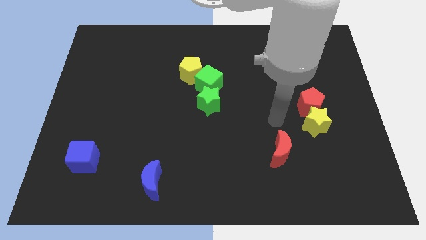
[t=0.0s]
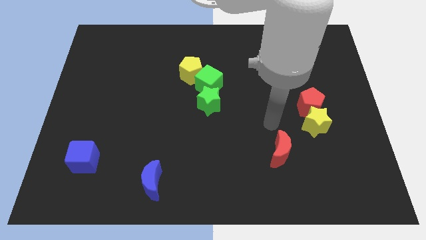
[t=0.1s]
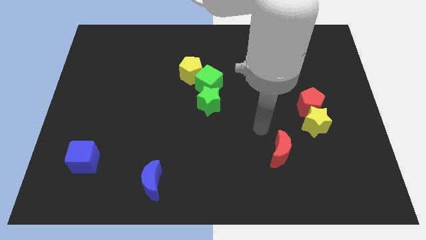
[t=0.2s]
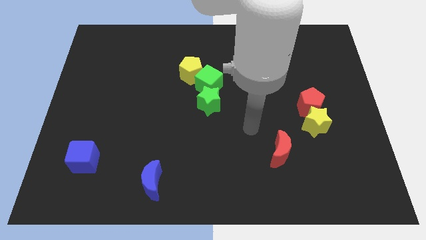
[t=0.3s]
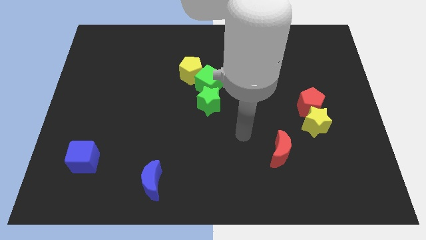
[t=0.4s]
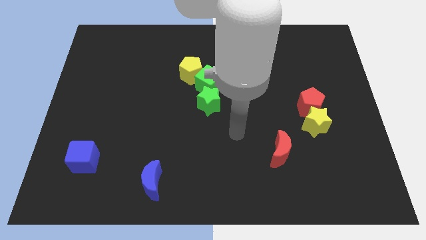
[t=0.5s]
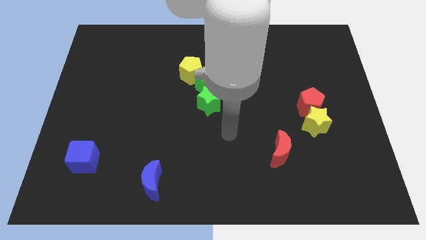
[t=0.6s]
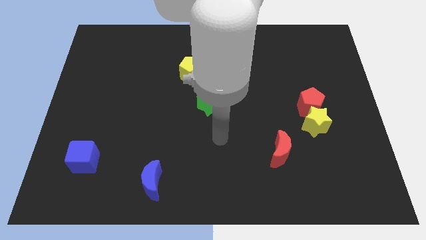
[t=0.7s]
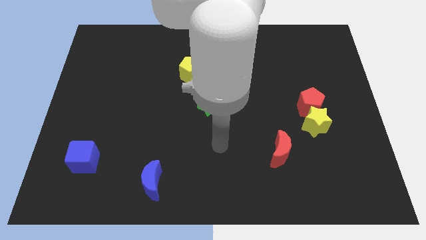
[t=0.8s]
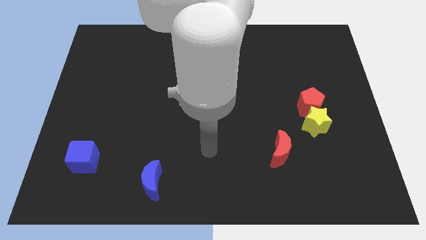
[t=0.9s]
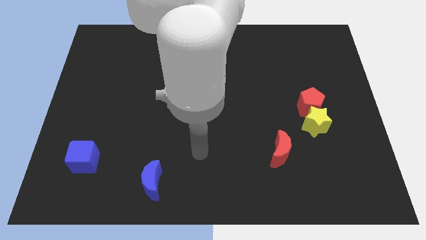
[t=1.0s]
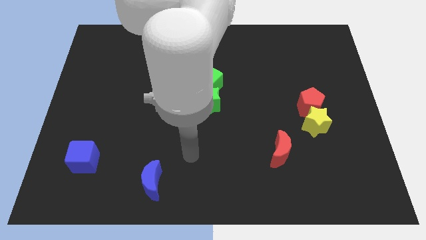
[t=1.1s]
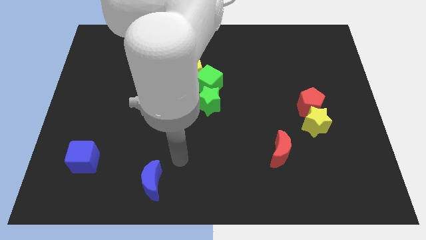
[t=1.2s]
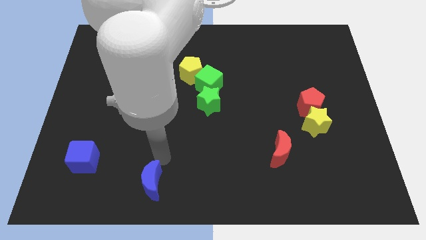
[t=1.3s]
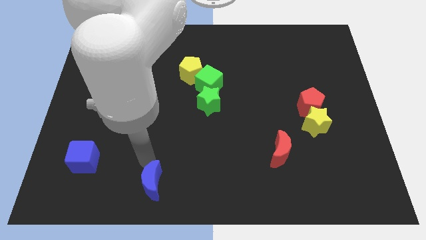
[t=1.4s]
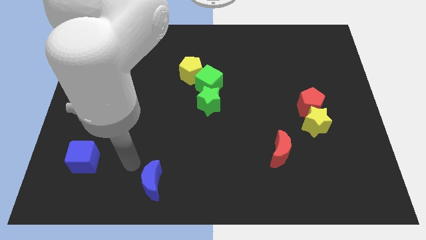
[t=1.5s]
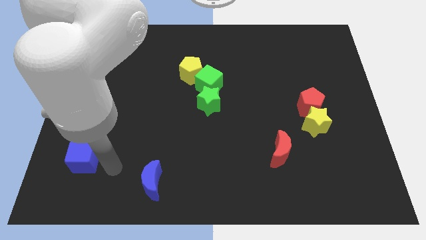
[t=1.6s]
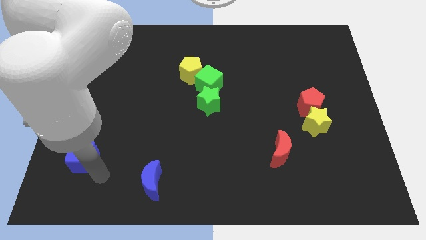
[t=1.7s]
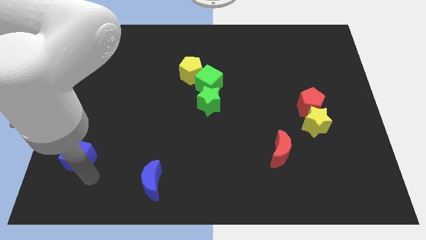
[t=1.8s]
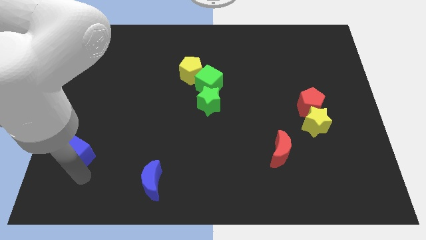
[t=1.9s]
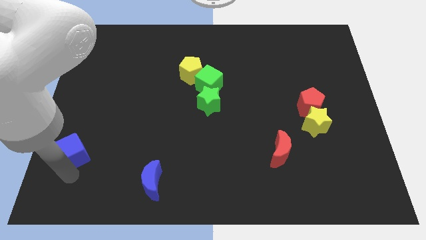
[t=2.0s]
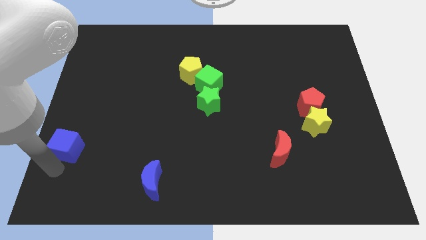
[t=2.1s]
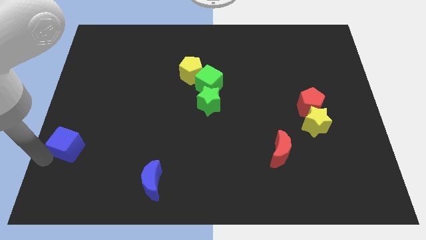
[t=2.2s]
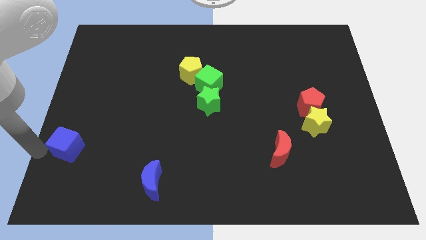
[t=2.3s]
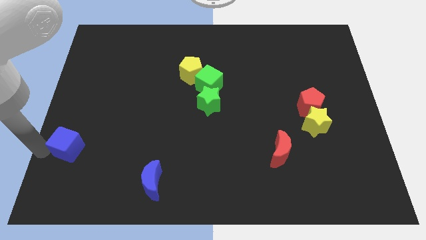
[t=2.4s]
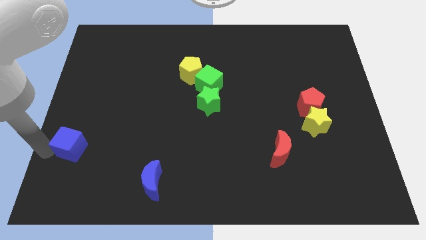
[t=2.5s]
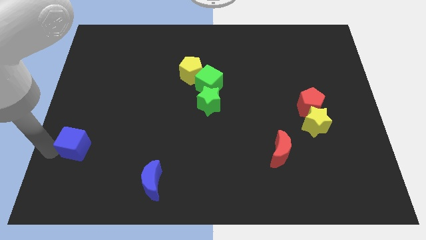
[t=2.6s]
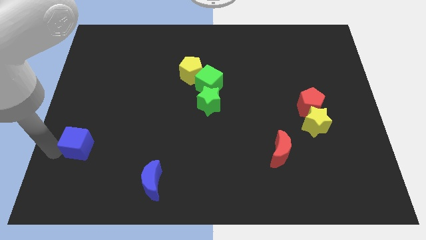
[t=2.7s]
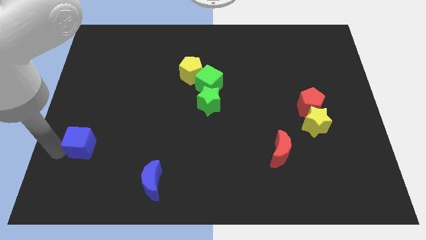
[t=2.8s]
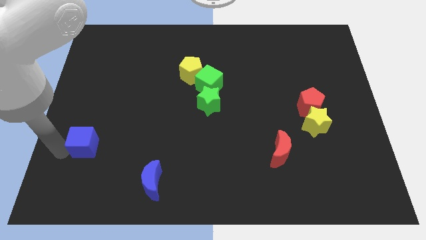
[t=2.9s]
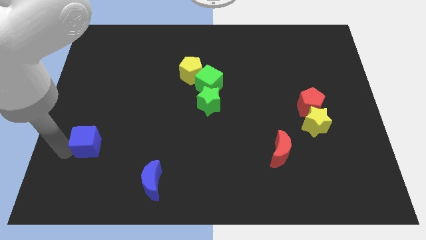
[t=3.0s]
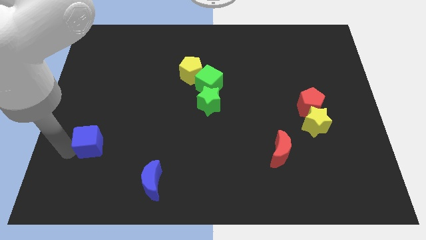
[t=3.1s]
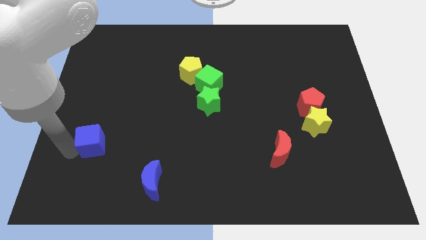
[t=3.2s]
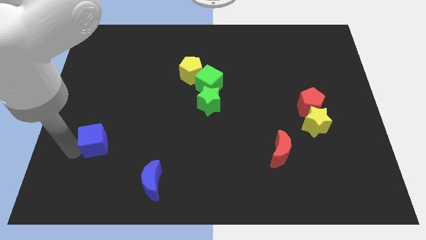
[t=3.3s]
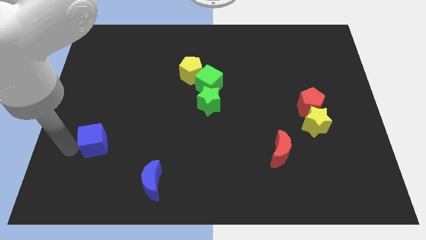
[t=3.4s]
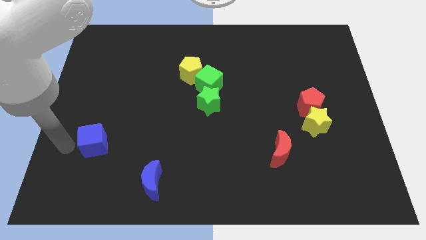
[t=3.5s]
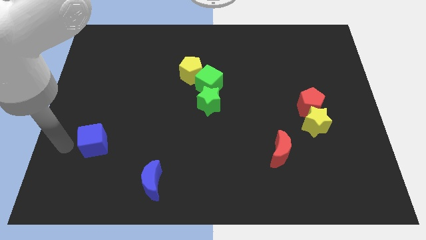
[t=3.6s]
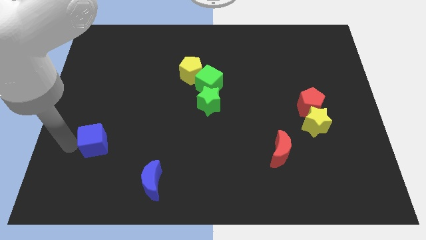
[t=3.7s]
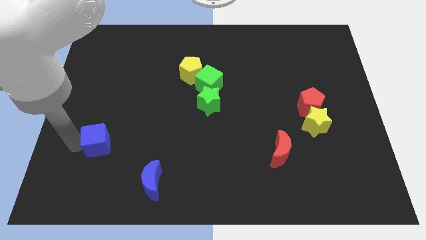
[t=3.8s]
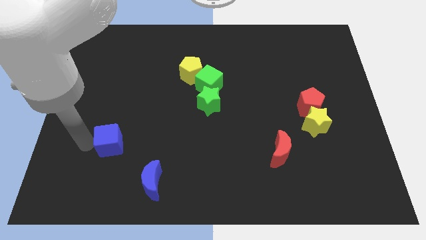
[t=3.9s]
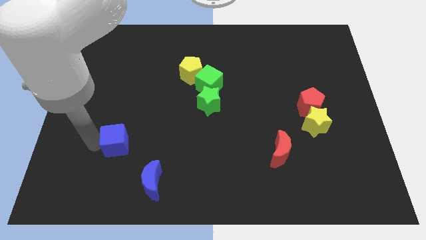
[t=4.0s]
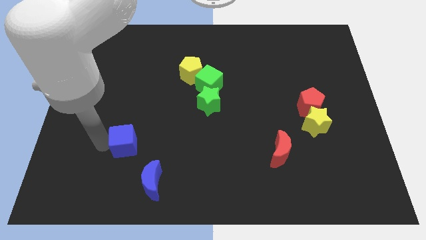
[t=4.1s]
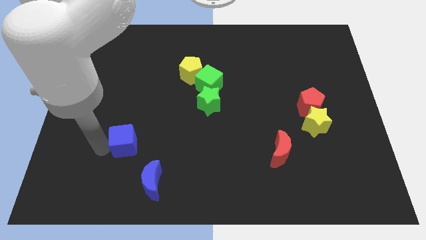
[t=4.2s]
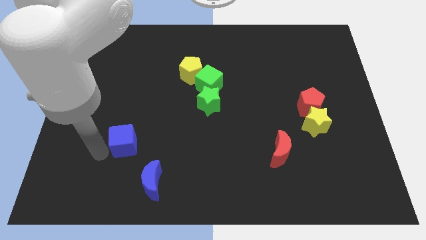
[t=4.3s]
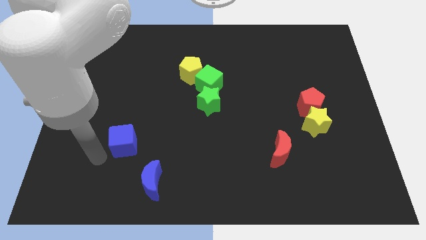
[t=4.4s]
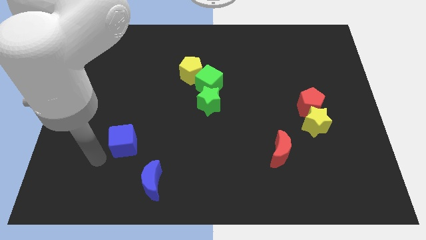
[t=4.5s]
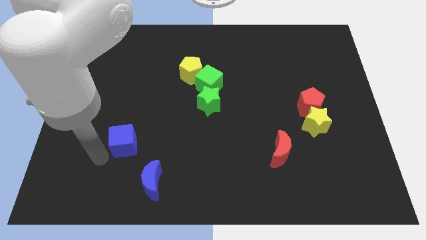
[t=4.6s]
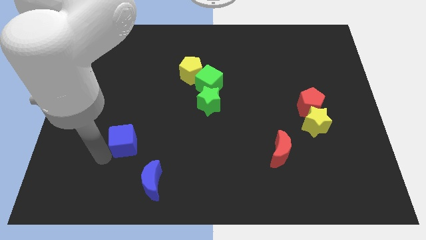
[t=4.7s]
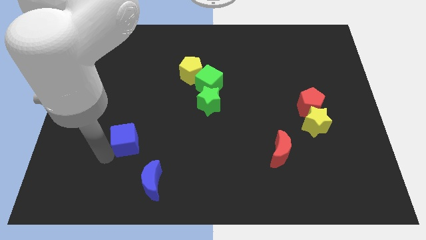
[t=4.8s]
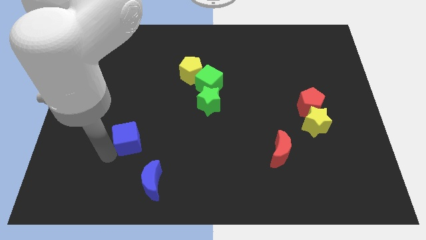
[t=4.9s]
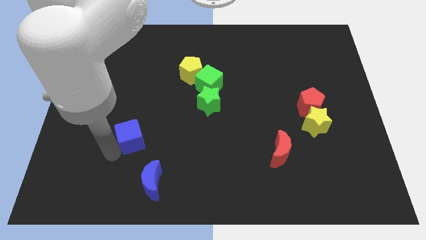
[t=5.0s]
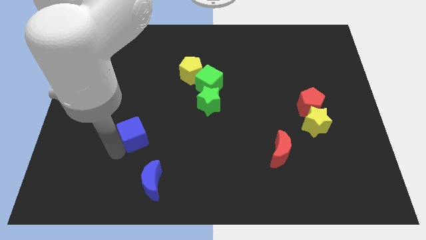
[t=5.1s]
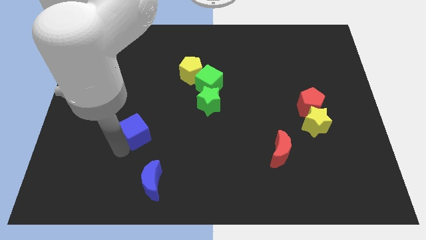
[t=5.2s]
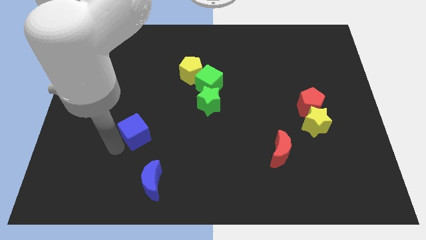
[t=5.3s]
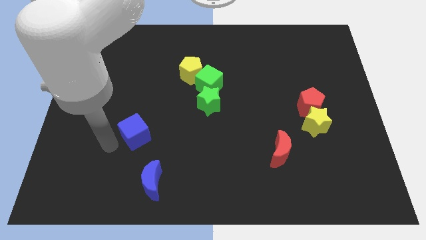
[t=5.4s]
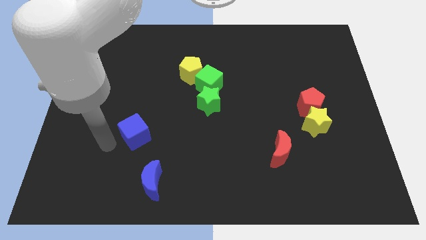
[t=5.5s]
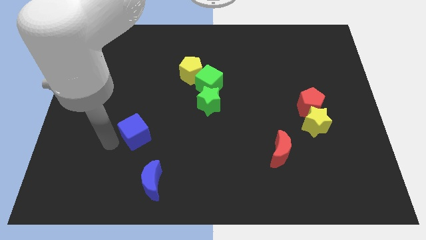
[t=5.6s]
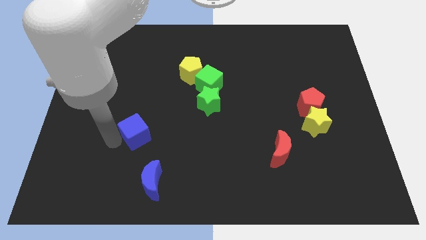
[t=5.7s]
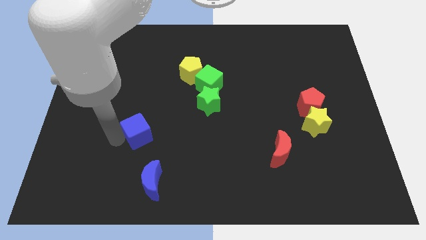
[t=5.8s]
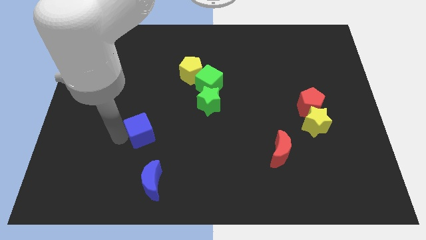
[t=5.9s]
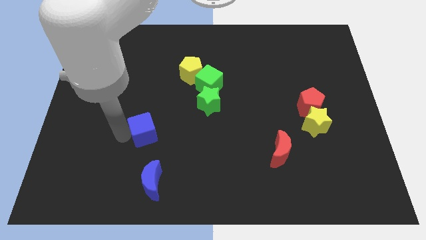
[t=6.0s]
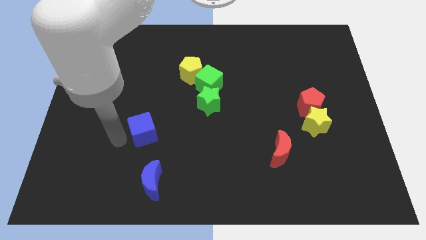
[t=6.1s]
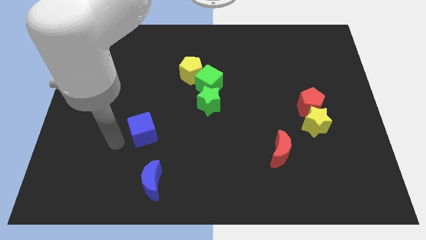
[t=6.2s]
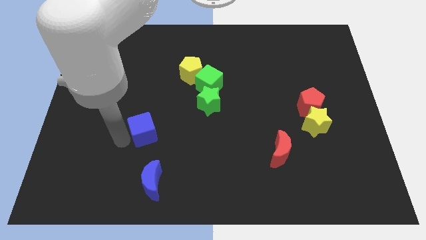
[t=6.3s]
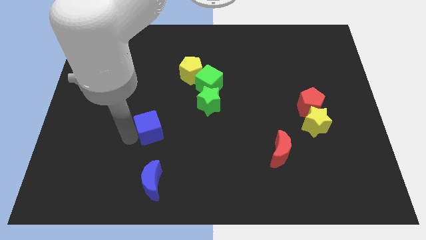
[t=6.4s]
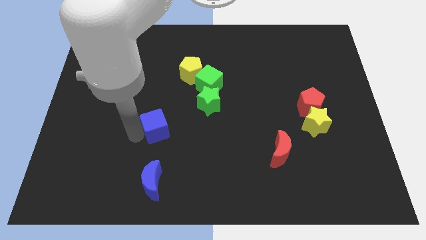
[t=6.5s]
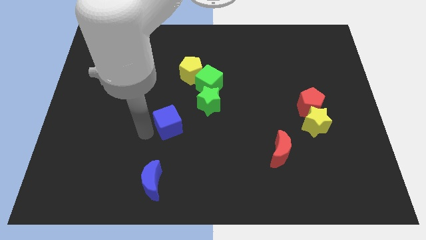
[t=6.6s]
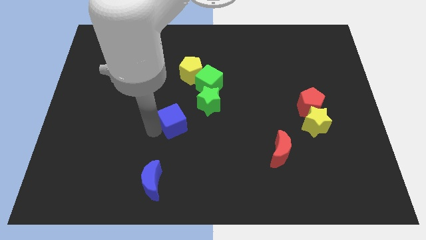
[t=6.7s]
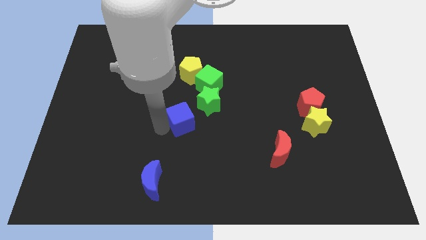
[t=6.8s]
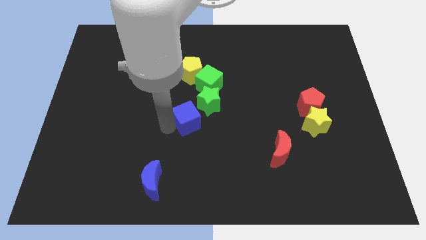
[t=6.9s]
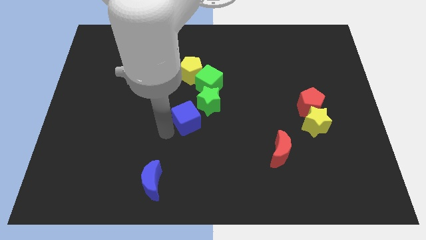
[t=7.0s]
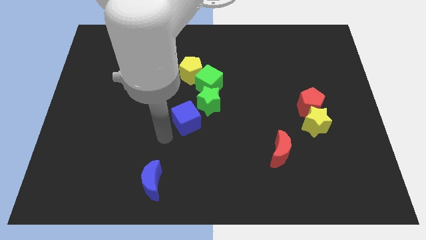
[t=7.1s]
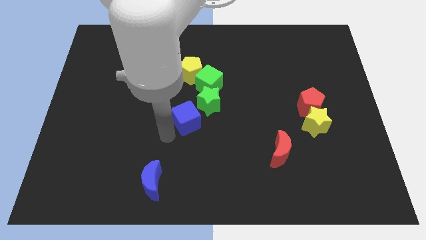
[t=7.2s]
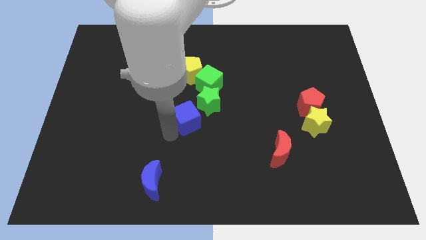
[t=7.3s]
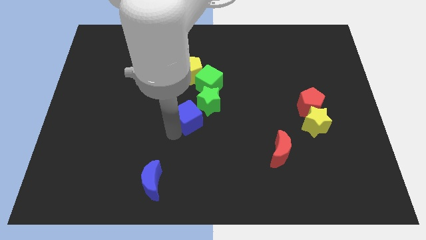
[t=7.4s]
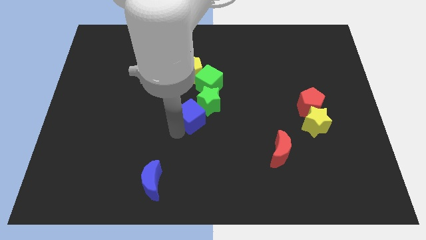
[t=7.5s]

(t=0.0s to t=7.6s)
push the blue cube towards the green star
